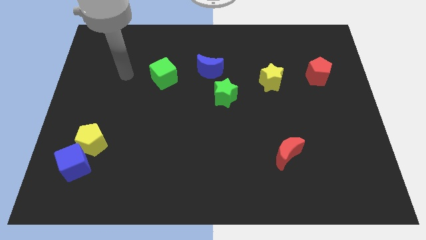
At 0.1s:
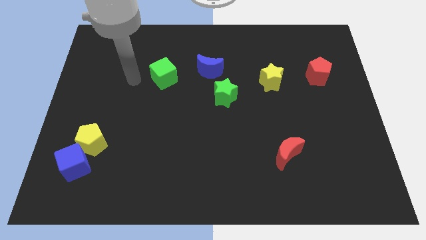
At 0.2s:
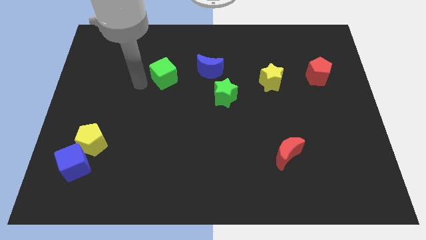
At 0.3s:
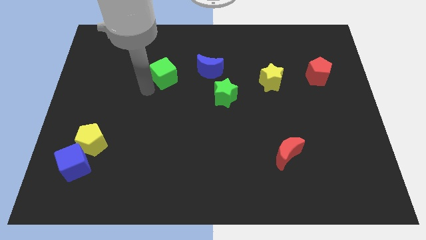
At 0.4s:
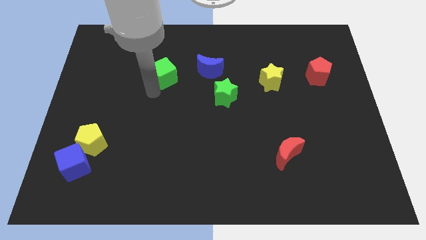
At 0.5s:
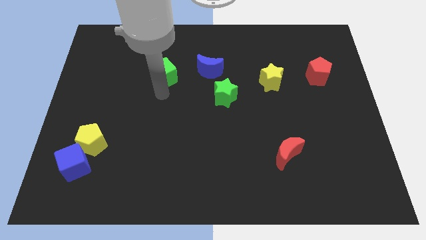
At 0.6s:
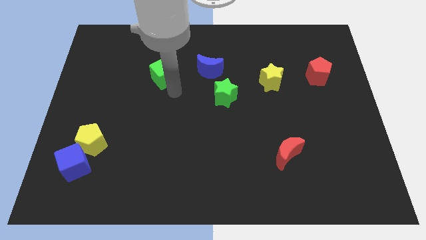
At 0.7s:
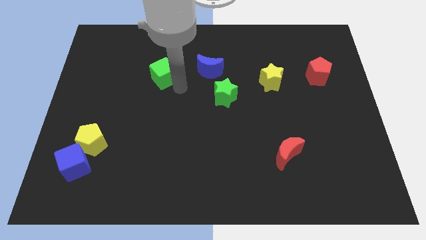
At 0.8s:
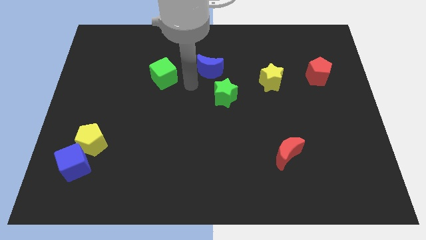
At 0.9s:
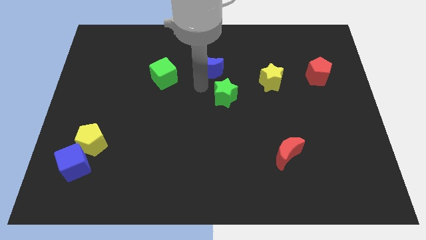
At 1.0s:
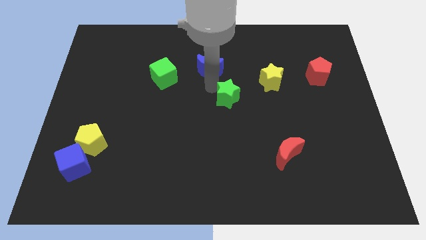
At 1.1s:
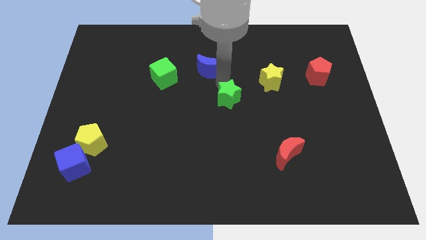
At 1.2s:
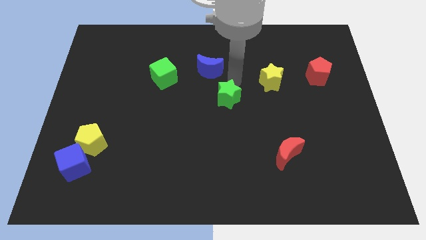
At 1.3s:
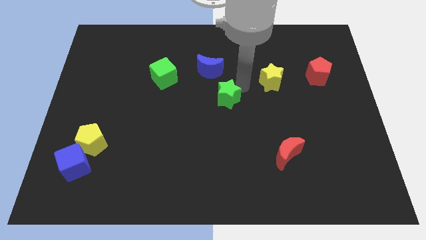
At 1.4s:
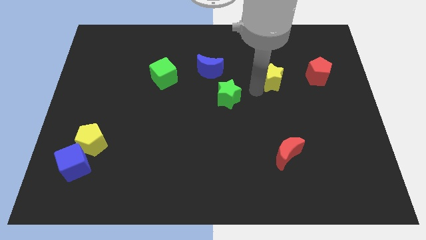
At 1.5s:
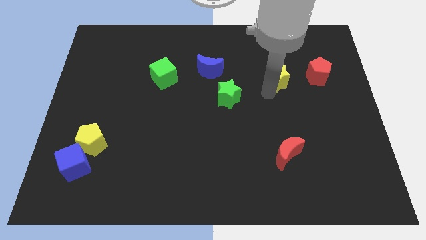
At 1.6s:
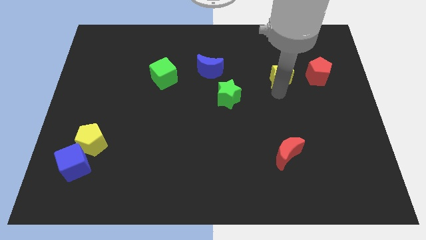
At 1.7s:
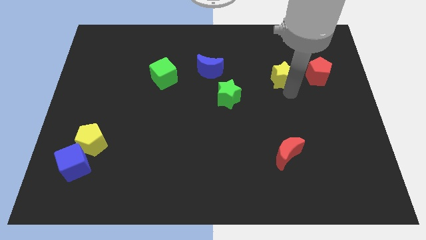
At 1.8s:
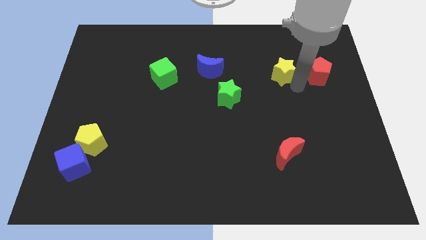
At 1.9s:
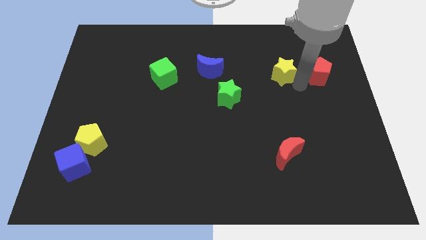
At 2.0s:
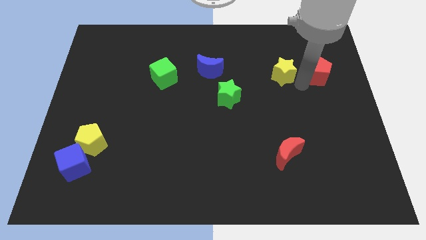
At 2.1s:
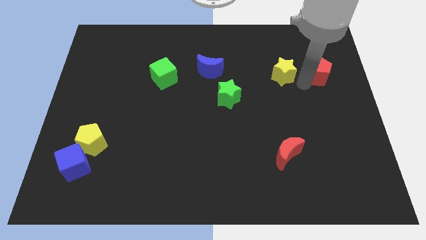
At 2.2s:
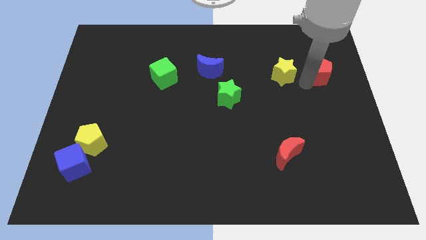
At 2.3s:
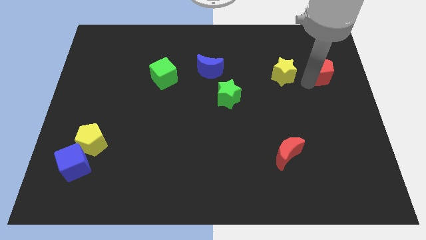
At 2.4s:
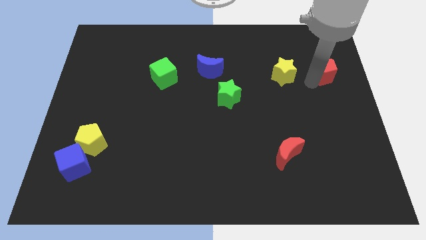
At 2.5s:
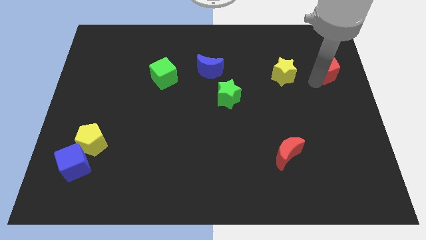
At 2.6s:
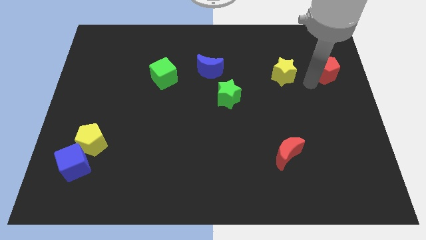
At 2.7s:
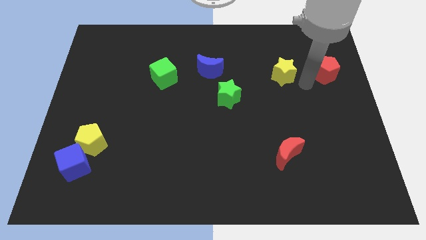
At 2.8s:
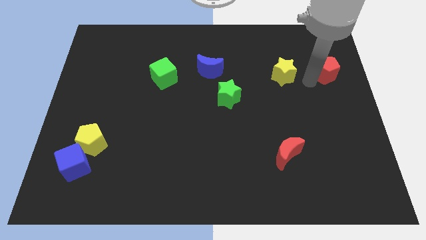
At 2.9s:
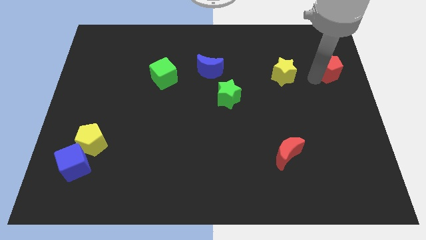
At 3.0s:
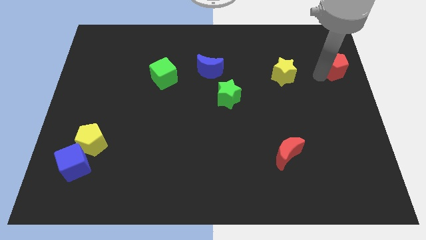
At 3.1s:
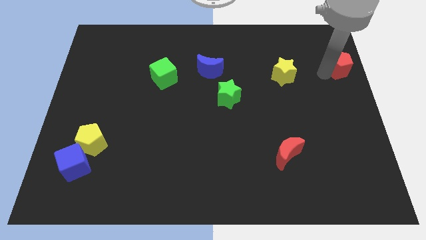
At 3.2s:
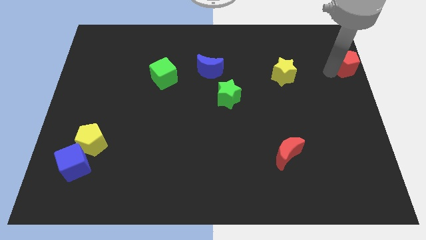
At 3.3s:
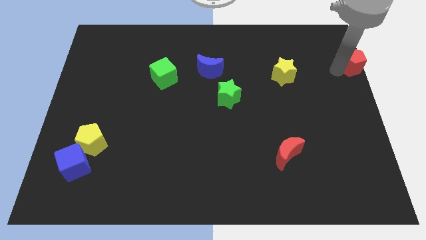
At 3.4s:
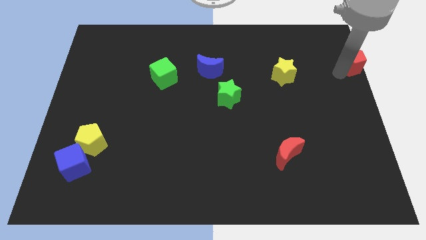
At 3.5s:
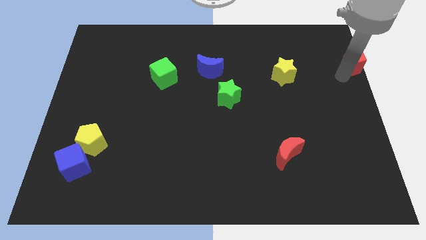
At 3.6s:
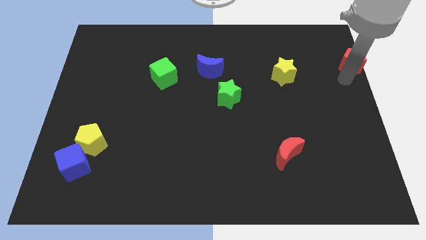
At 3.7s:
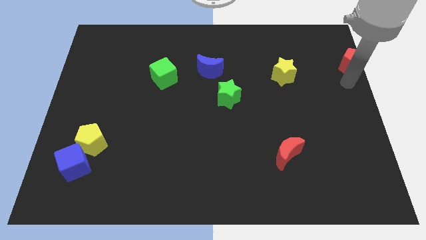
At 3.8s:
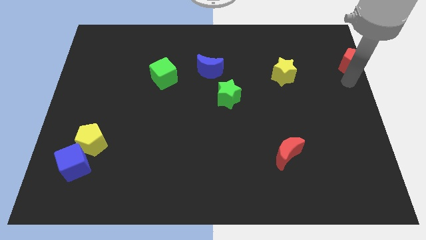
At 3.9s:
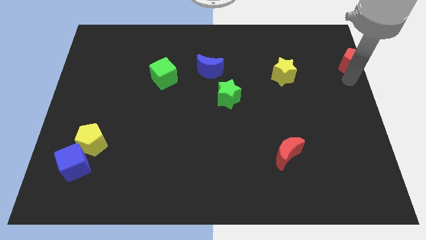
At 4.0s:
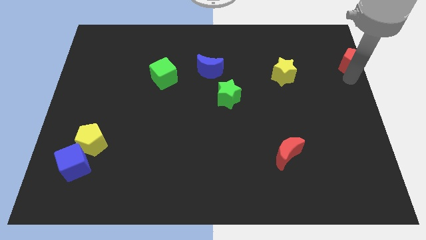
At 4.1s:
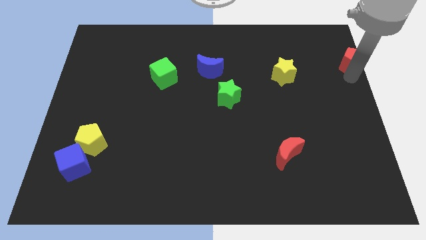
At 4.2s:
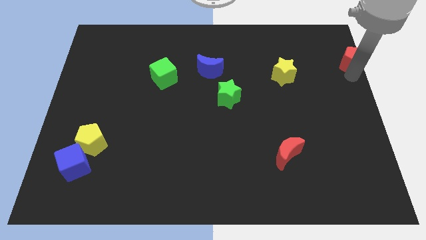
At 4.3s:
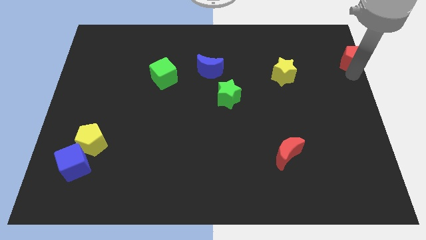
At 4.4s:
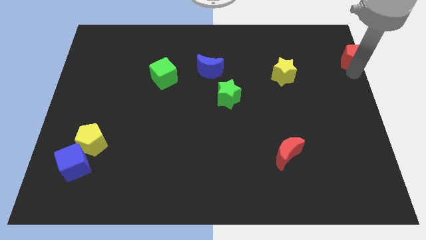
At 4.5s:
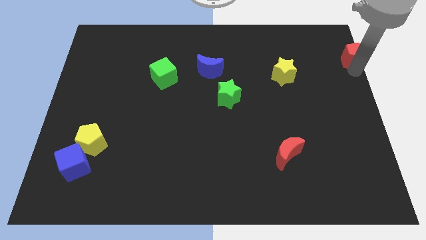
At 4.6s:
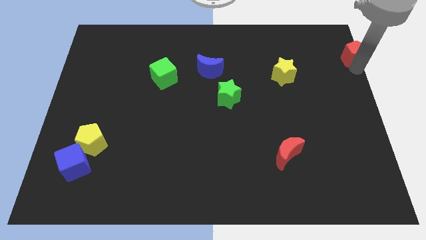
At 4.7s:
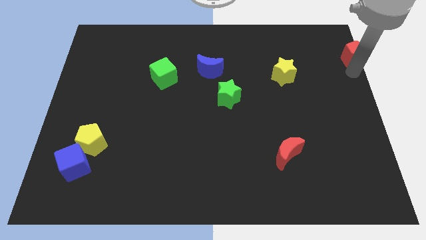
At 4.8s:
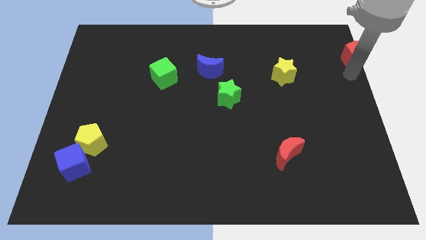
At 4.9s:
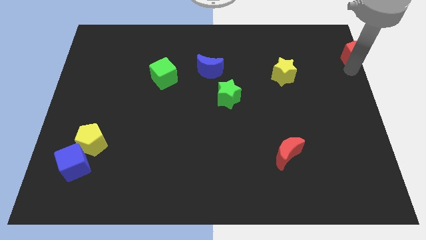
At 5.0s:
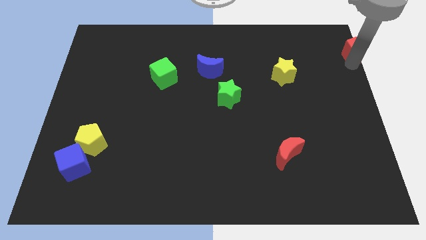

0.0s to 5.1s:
put the red pentagon to the top right of the board

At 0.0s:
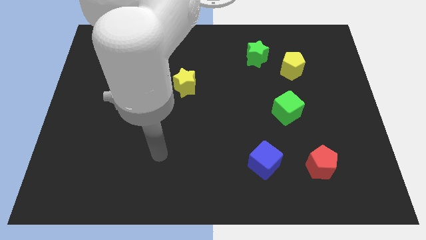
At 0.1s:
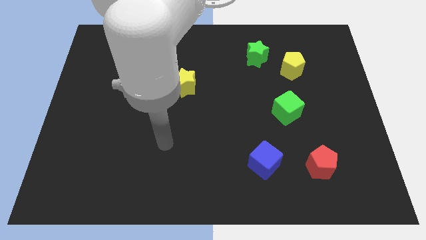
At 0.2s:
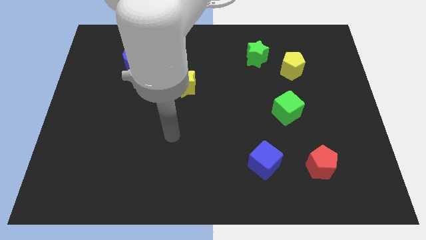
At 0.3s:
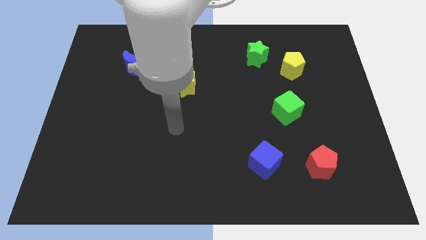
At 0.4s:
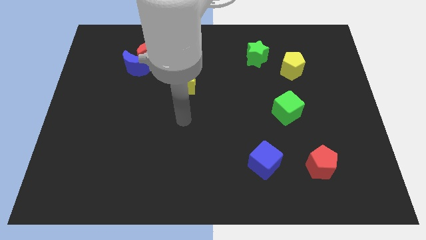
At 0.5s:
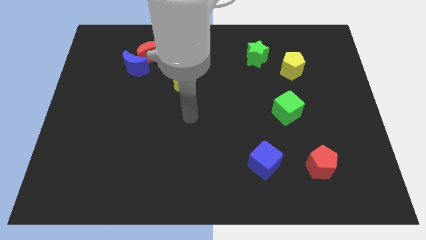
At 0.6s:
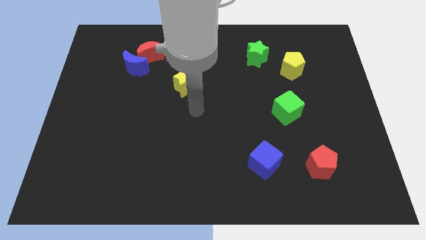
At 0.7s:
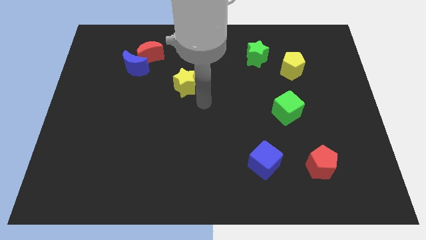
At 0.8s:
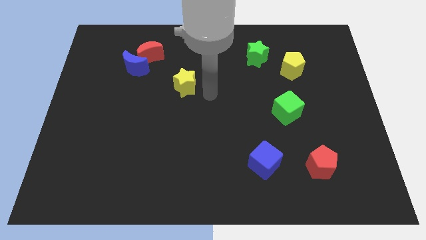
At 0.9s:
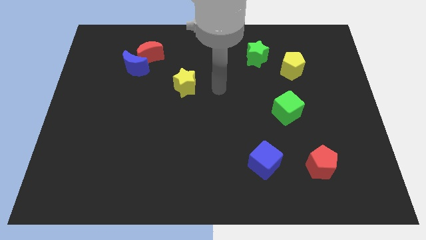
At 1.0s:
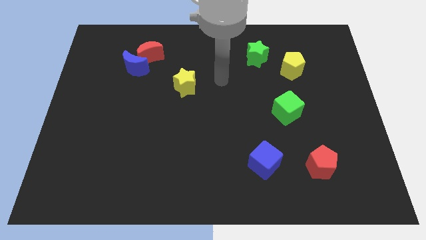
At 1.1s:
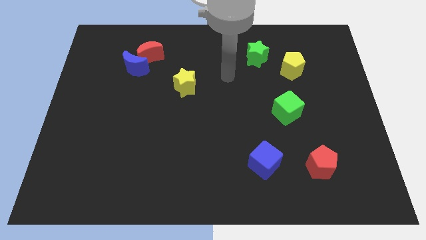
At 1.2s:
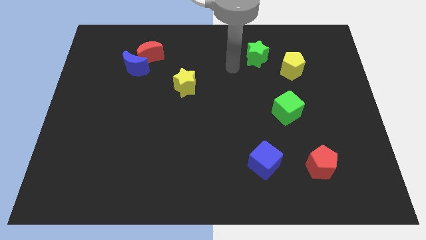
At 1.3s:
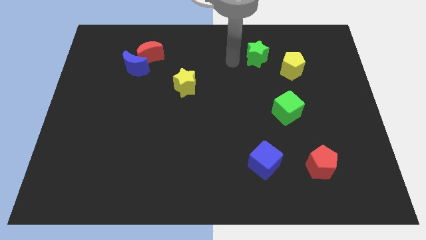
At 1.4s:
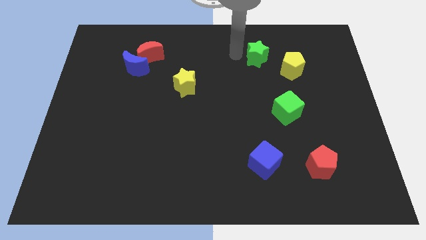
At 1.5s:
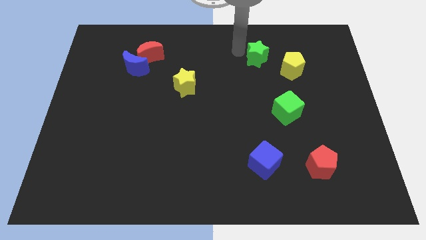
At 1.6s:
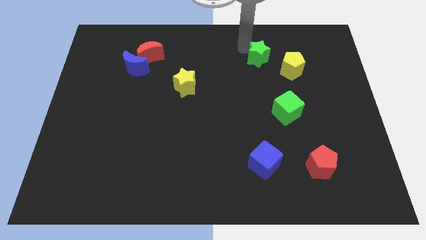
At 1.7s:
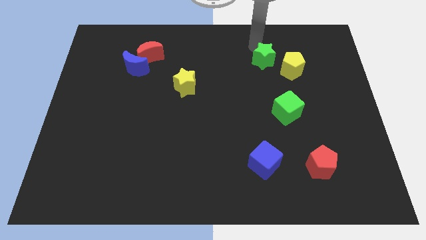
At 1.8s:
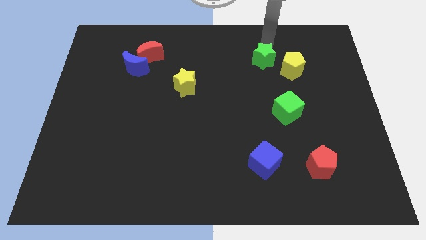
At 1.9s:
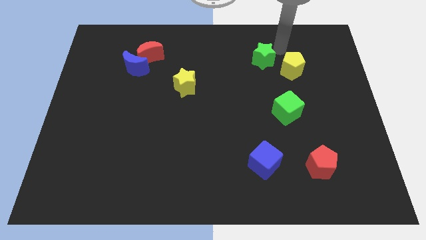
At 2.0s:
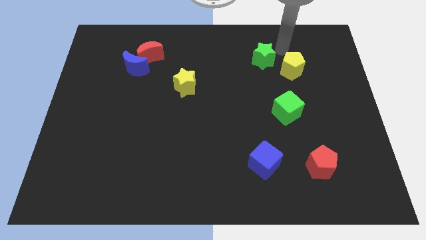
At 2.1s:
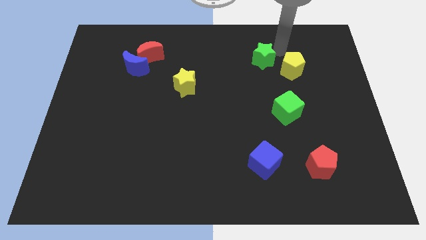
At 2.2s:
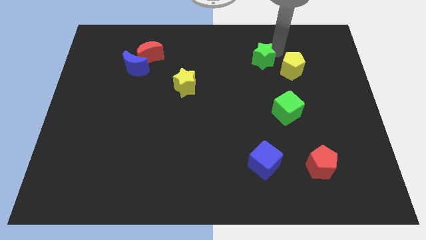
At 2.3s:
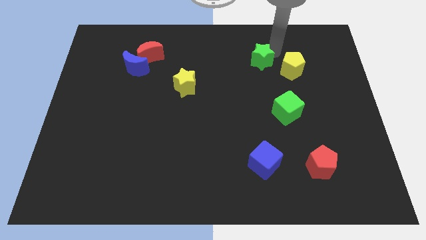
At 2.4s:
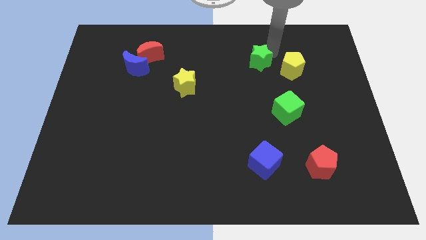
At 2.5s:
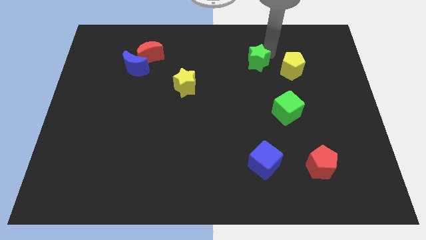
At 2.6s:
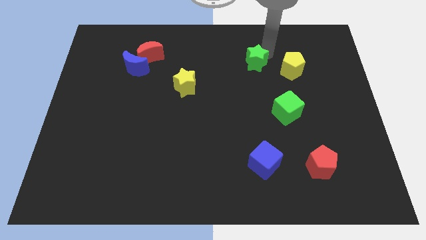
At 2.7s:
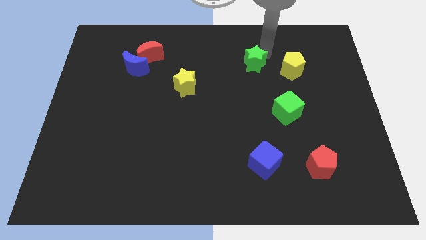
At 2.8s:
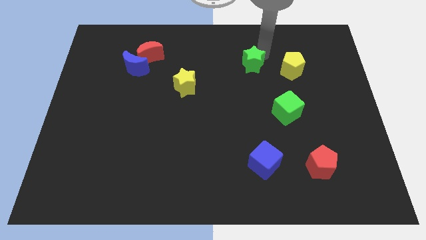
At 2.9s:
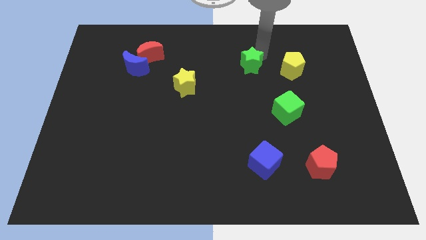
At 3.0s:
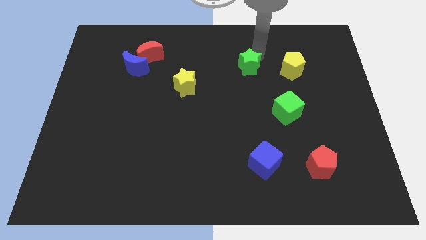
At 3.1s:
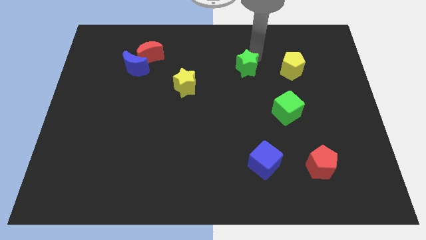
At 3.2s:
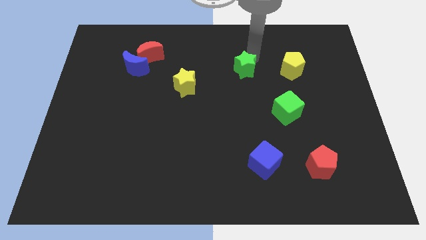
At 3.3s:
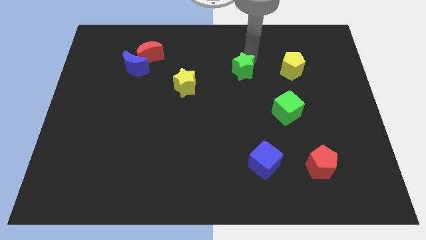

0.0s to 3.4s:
put the green star to the center of the board

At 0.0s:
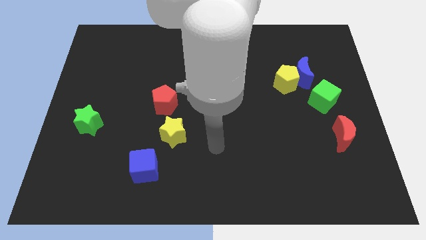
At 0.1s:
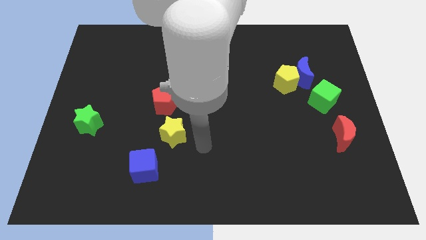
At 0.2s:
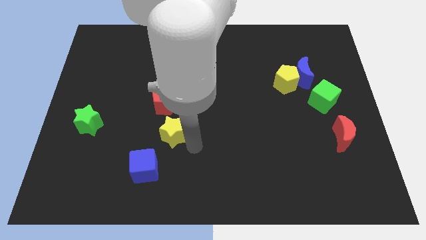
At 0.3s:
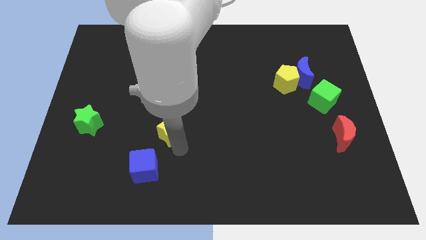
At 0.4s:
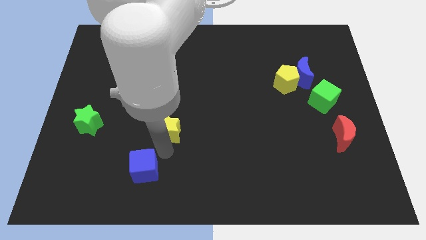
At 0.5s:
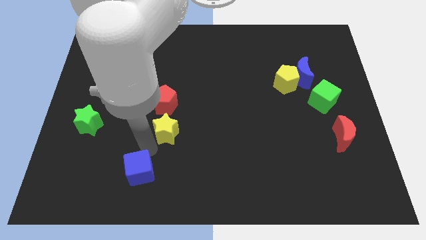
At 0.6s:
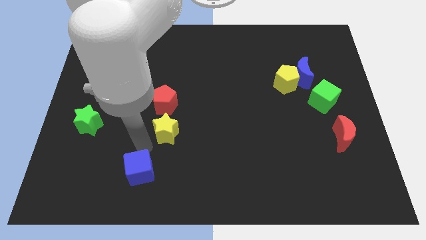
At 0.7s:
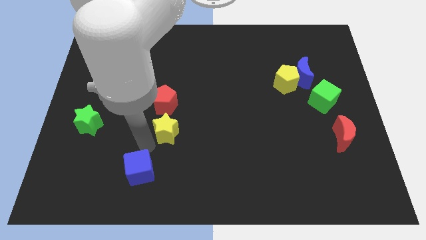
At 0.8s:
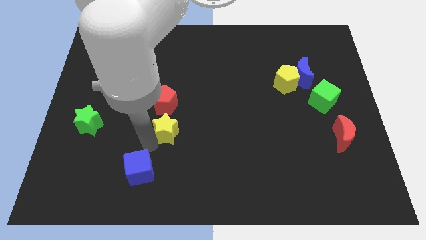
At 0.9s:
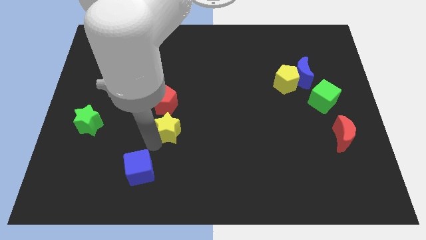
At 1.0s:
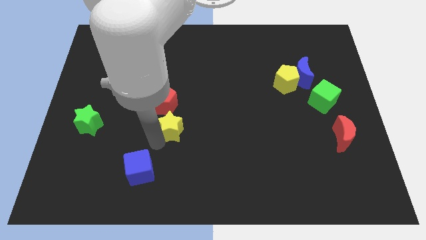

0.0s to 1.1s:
slide the yellow star to the center of the board
